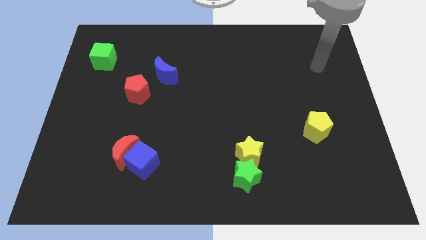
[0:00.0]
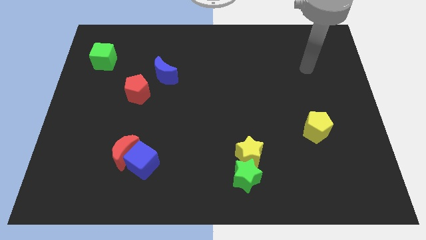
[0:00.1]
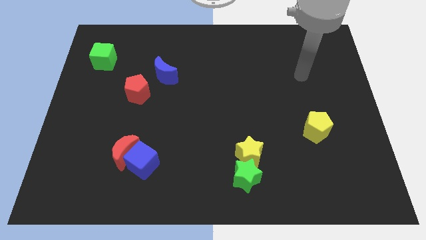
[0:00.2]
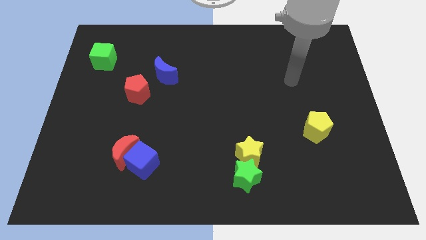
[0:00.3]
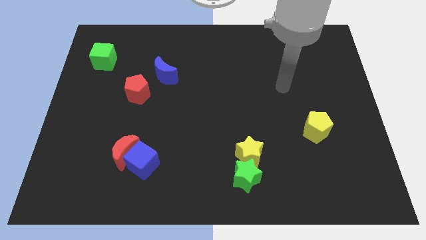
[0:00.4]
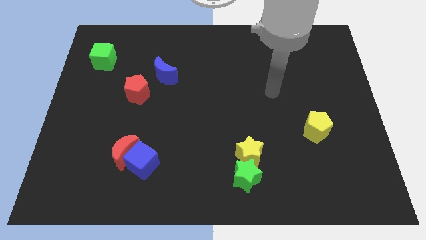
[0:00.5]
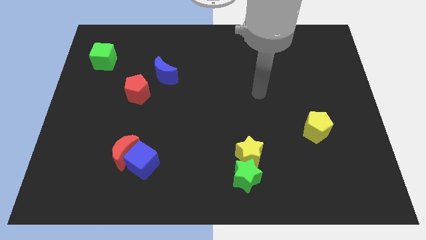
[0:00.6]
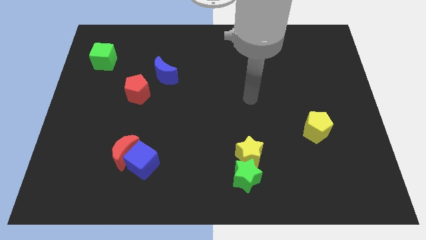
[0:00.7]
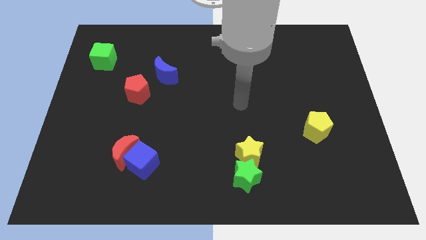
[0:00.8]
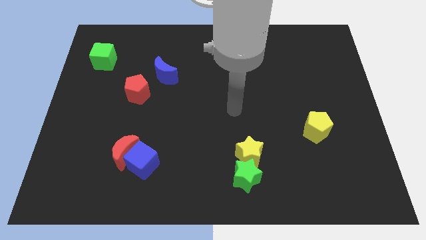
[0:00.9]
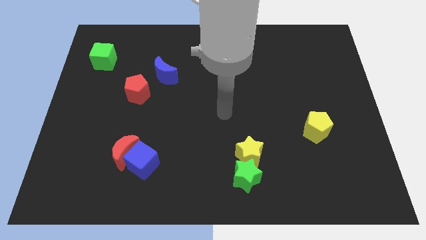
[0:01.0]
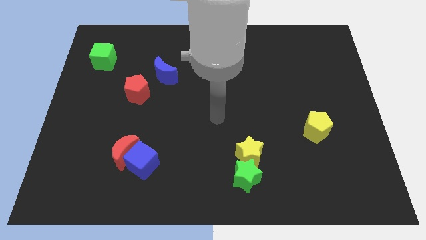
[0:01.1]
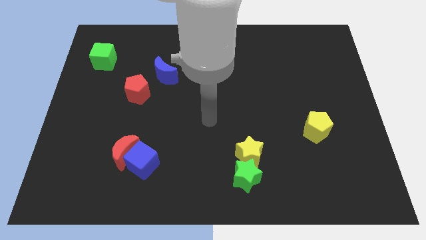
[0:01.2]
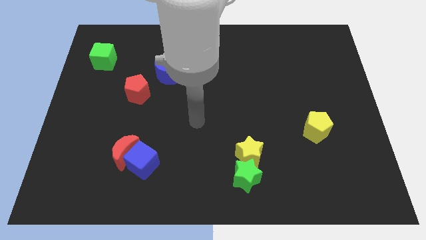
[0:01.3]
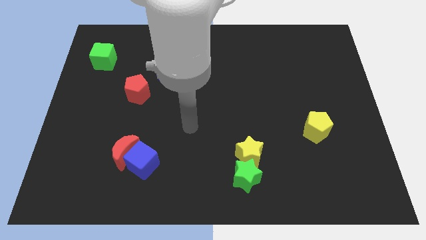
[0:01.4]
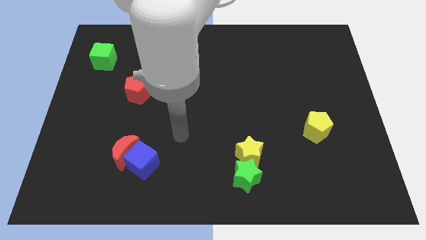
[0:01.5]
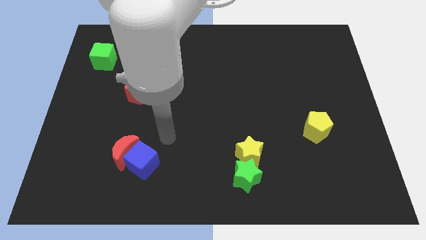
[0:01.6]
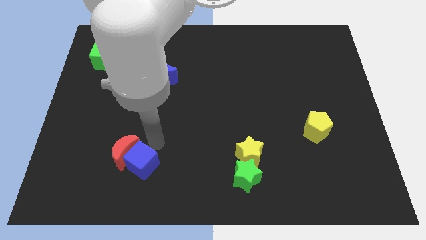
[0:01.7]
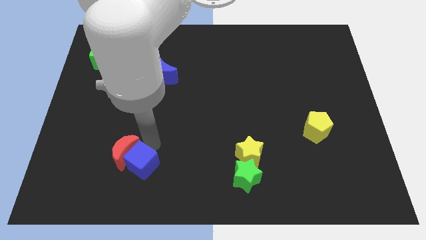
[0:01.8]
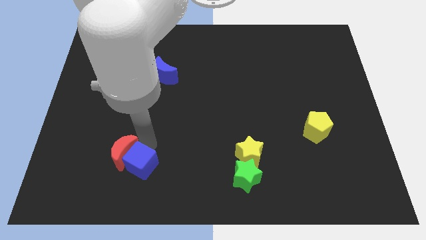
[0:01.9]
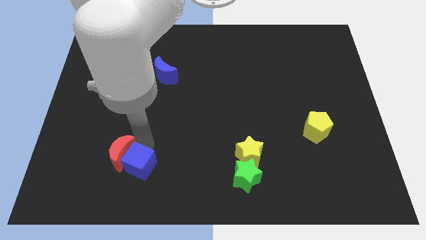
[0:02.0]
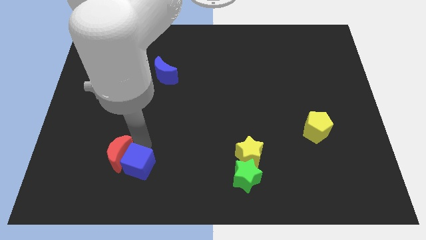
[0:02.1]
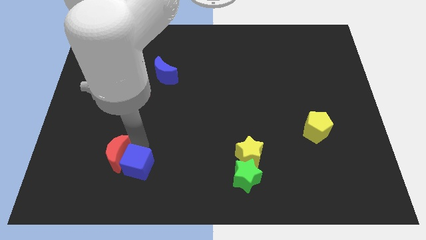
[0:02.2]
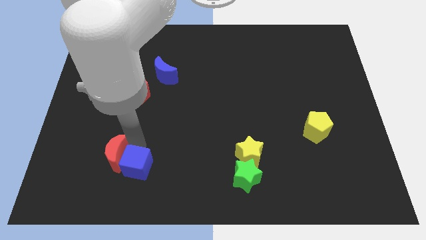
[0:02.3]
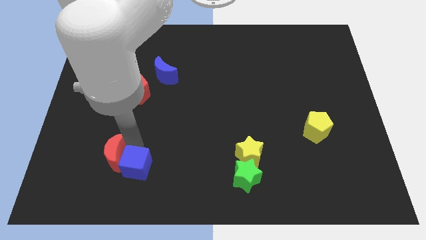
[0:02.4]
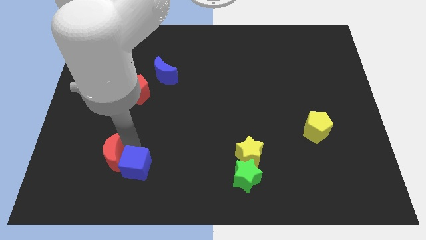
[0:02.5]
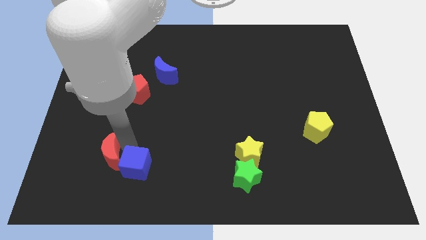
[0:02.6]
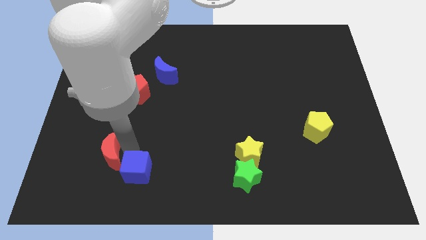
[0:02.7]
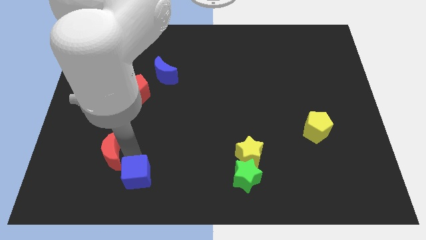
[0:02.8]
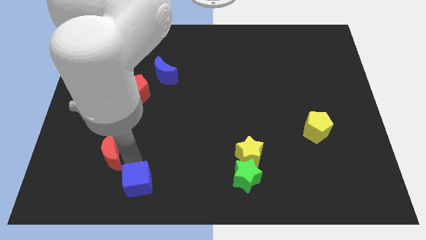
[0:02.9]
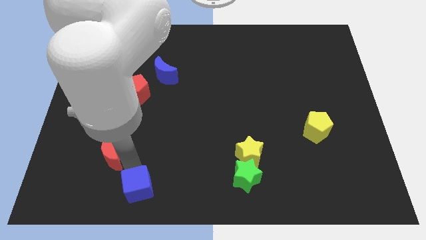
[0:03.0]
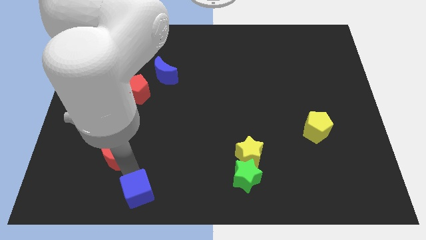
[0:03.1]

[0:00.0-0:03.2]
move the red moon away from the blue cube

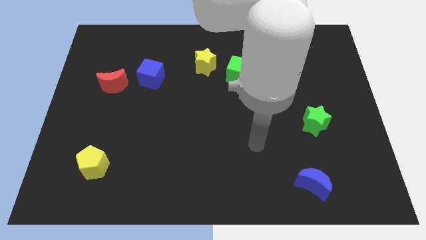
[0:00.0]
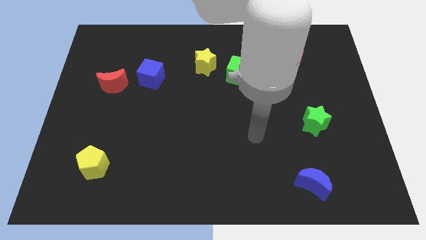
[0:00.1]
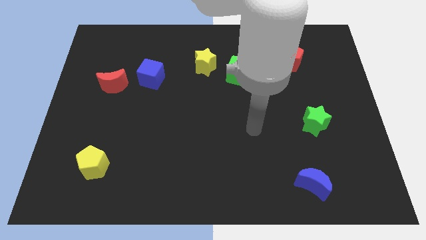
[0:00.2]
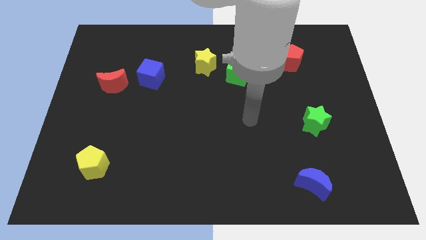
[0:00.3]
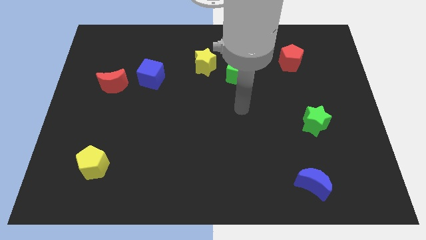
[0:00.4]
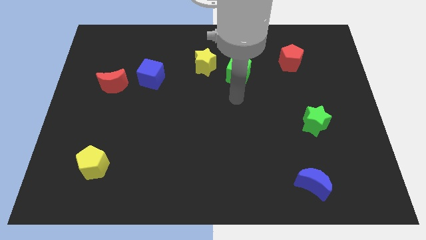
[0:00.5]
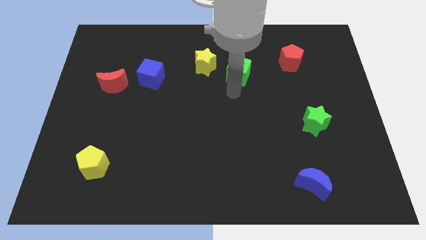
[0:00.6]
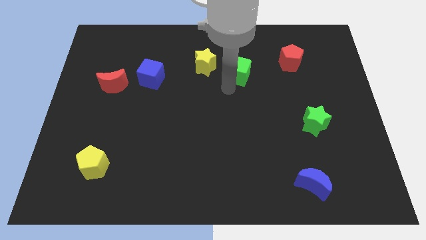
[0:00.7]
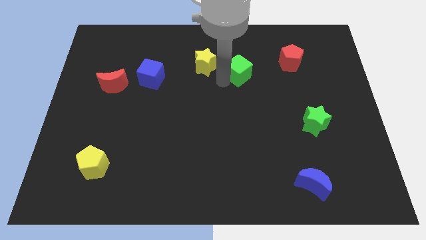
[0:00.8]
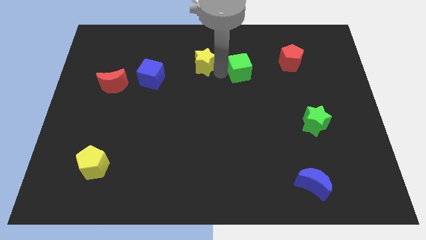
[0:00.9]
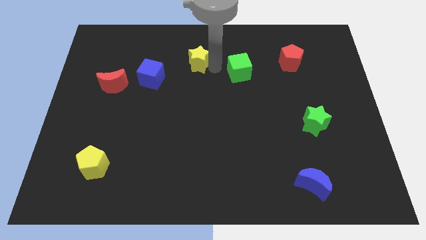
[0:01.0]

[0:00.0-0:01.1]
separate the green cube from the yellow star

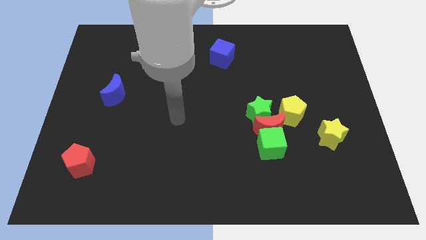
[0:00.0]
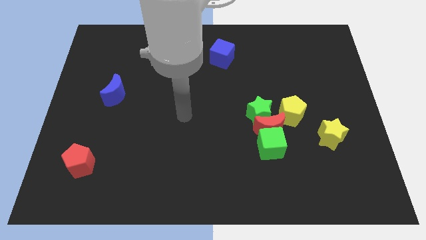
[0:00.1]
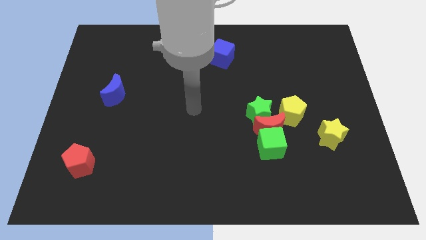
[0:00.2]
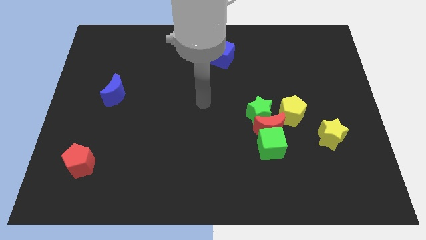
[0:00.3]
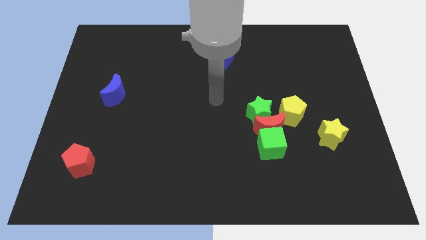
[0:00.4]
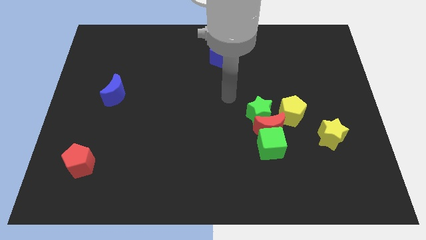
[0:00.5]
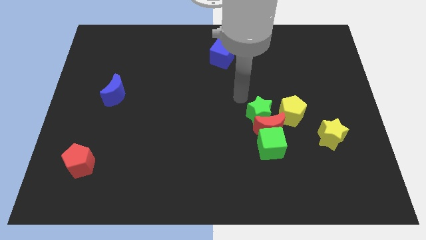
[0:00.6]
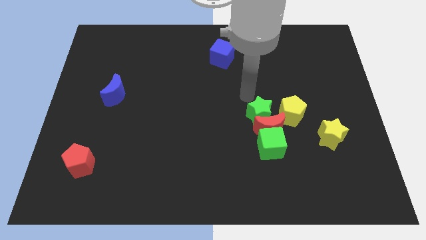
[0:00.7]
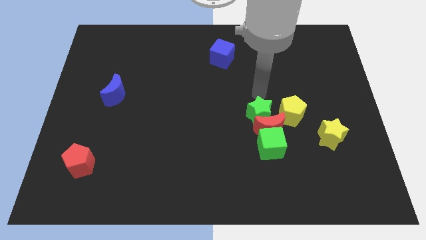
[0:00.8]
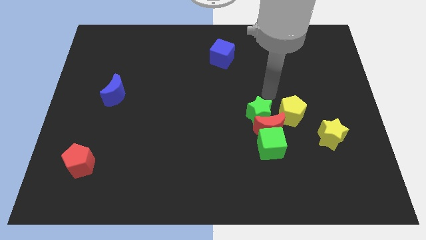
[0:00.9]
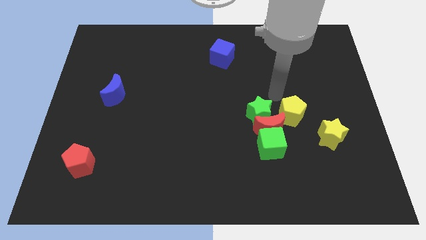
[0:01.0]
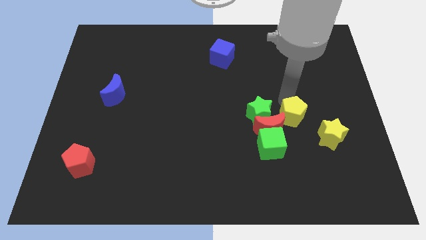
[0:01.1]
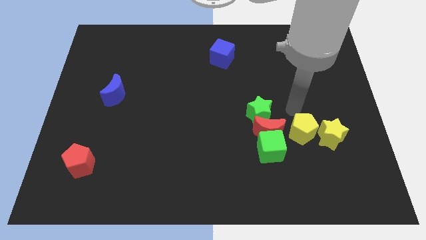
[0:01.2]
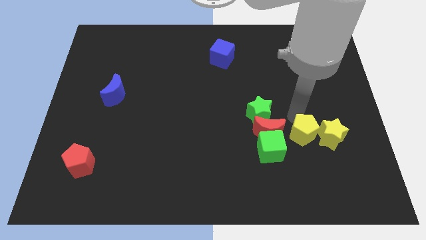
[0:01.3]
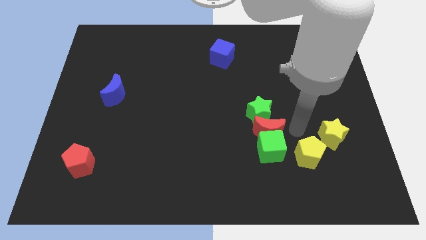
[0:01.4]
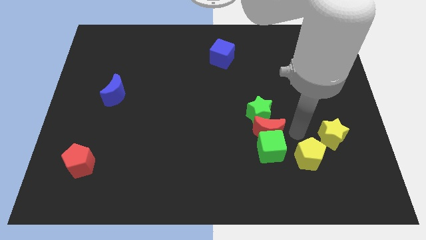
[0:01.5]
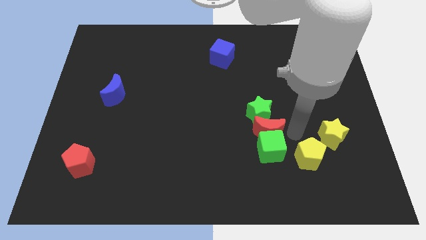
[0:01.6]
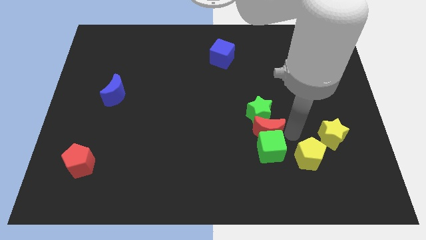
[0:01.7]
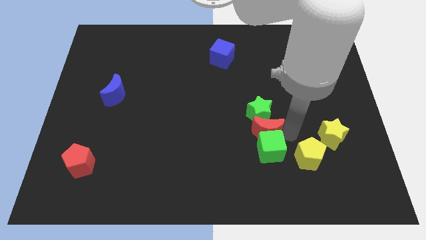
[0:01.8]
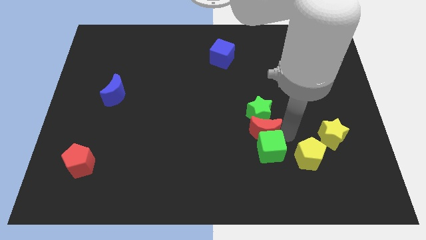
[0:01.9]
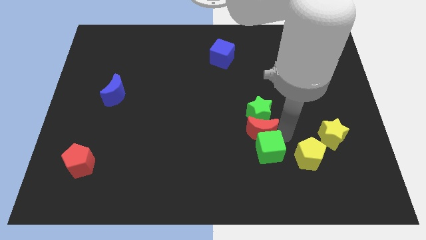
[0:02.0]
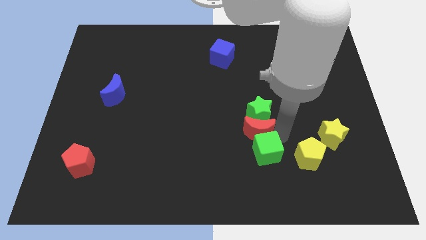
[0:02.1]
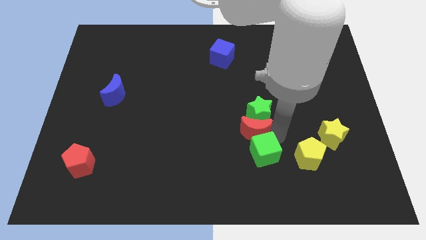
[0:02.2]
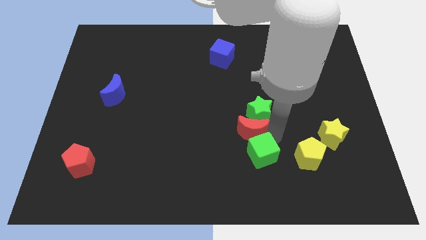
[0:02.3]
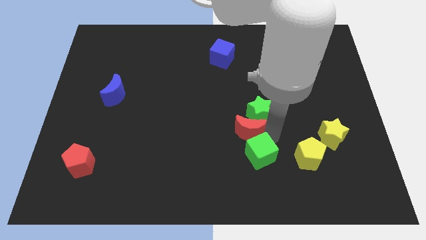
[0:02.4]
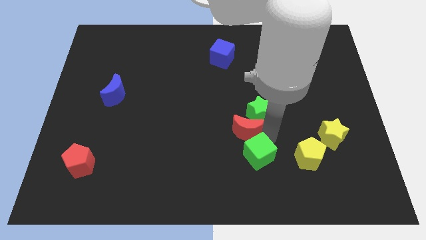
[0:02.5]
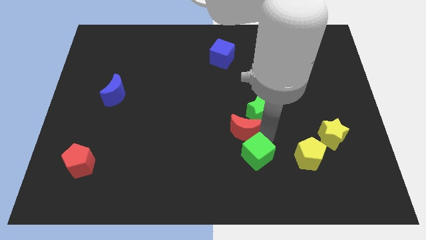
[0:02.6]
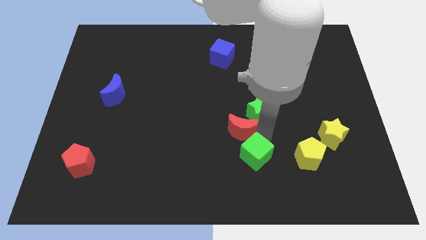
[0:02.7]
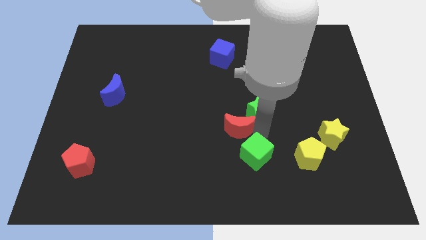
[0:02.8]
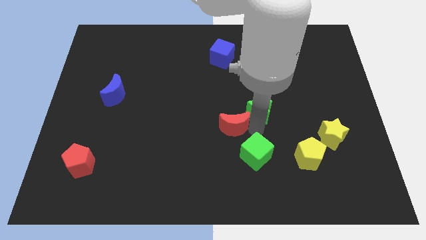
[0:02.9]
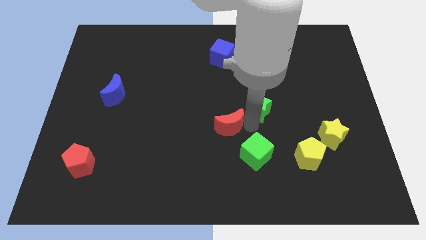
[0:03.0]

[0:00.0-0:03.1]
separate the red moon from the green cube, green star, and yellow pentagon

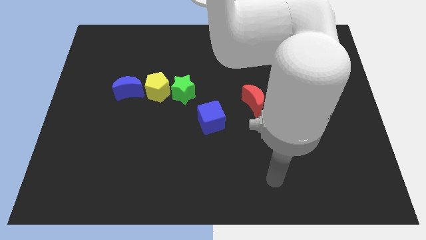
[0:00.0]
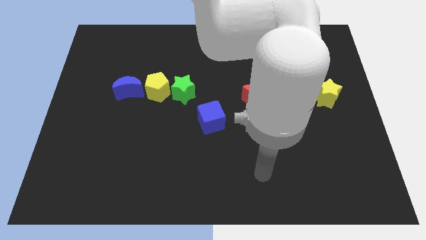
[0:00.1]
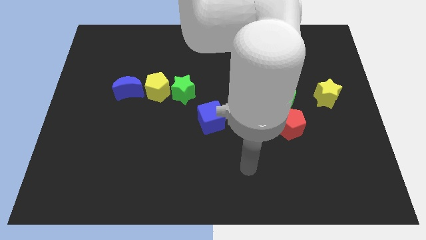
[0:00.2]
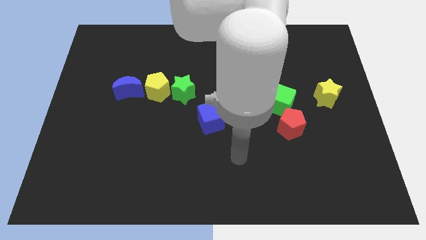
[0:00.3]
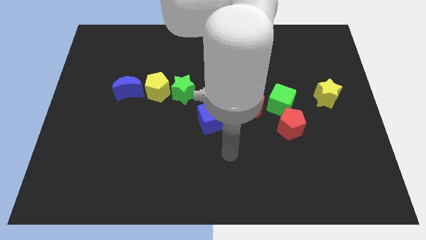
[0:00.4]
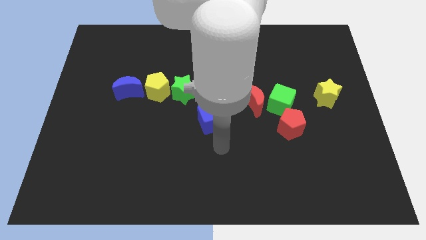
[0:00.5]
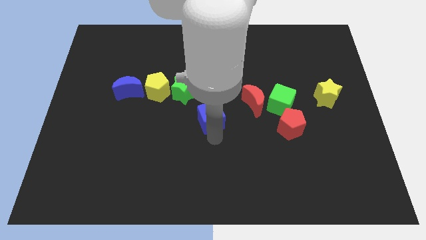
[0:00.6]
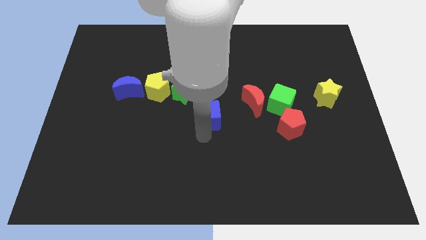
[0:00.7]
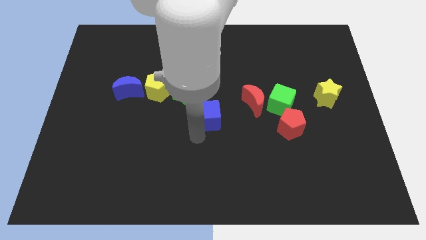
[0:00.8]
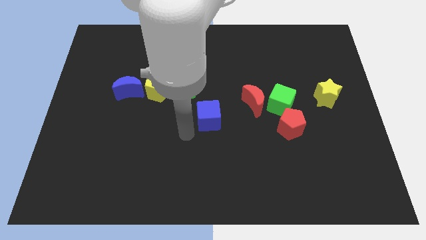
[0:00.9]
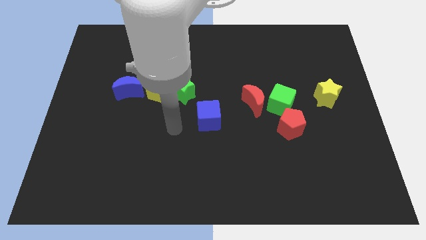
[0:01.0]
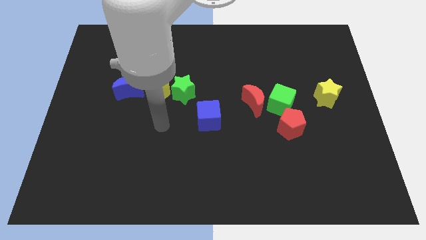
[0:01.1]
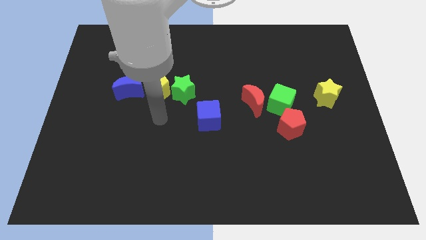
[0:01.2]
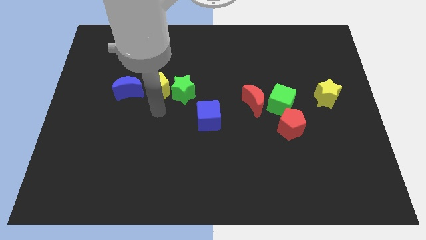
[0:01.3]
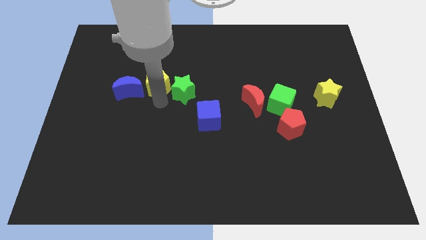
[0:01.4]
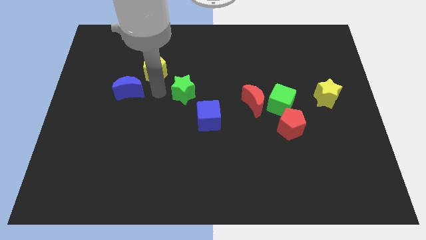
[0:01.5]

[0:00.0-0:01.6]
pull the green star apart from the yellow pentagon

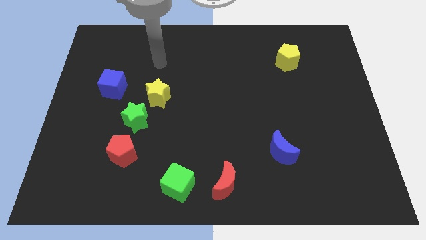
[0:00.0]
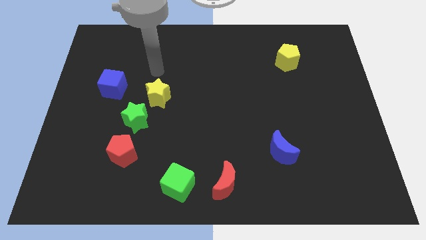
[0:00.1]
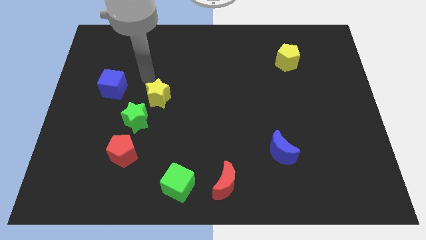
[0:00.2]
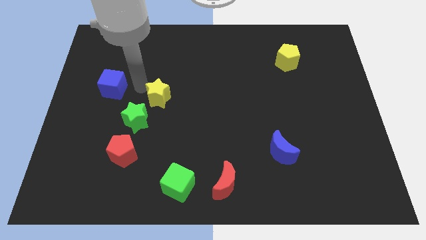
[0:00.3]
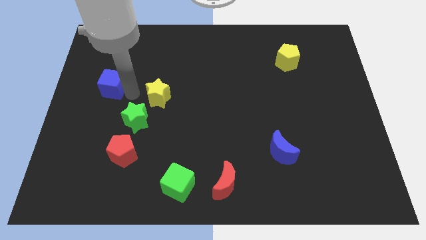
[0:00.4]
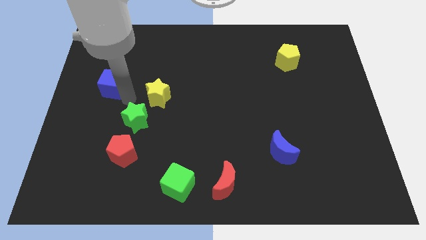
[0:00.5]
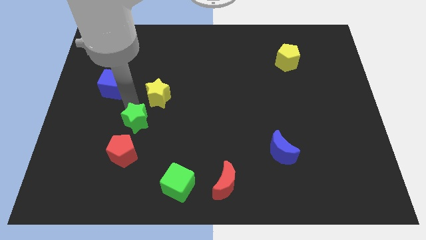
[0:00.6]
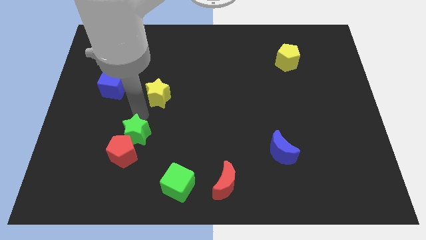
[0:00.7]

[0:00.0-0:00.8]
pull the yellow star apart from the green star
